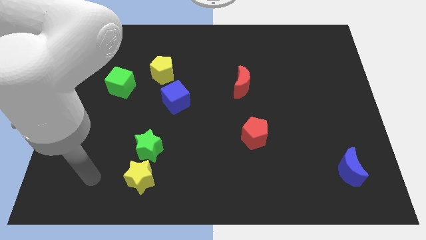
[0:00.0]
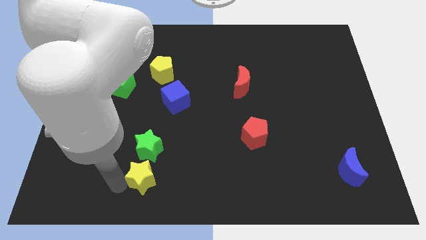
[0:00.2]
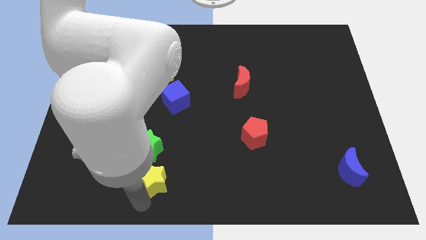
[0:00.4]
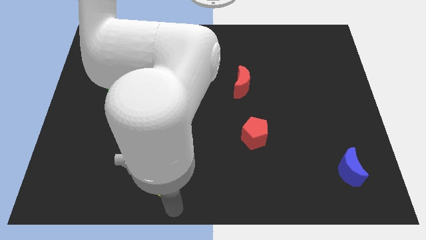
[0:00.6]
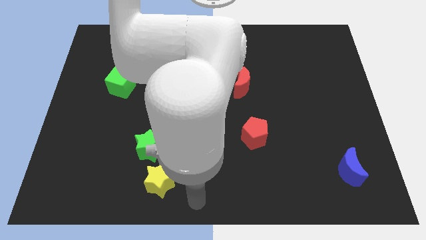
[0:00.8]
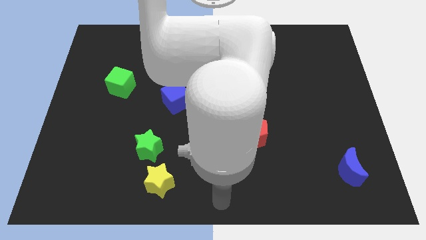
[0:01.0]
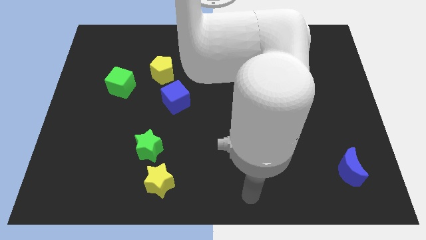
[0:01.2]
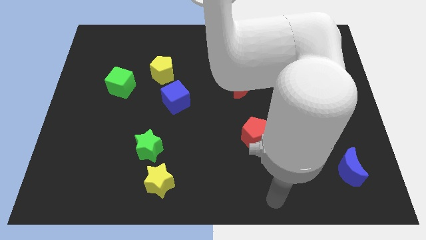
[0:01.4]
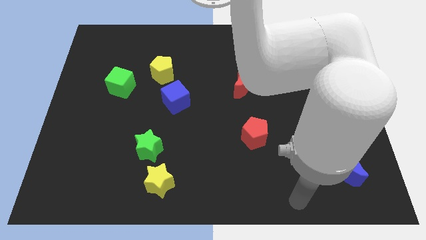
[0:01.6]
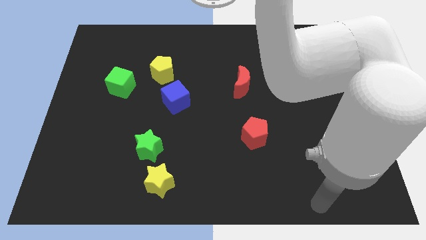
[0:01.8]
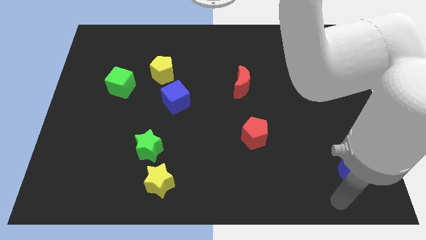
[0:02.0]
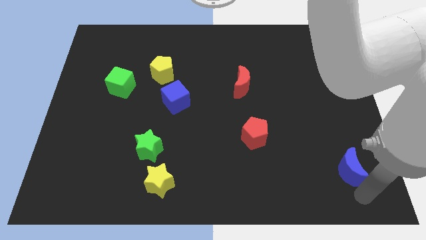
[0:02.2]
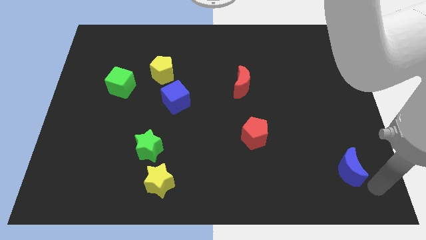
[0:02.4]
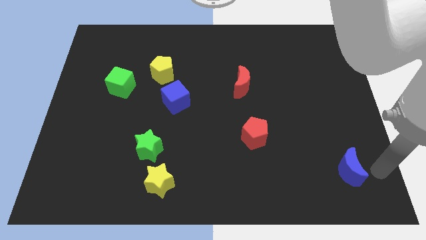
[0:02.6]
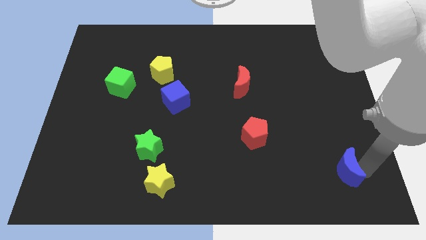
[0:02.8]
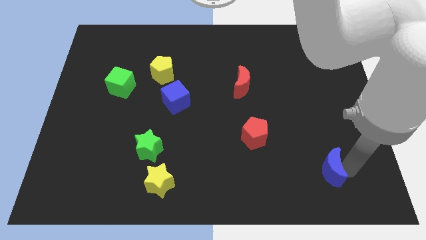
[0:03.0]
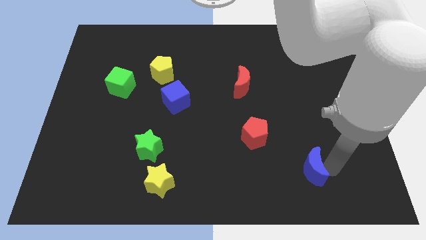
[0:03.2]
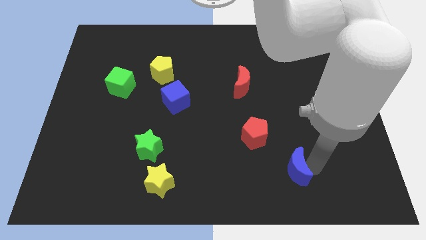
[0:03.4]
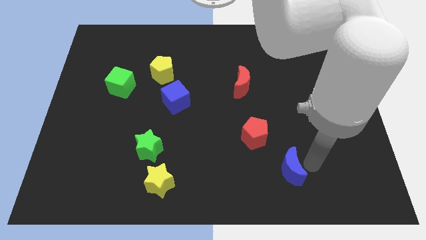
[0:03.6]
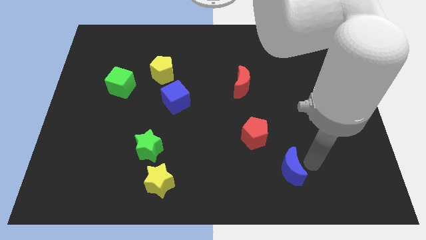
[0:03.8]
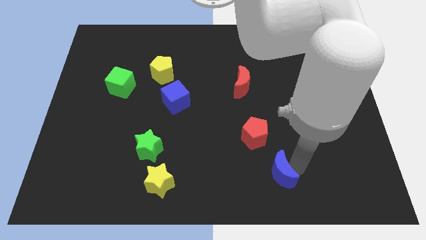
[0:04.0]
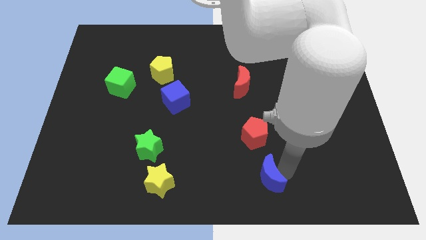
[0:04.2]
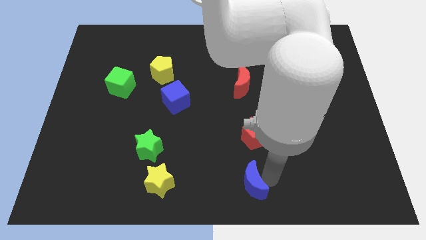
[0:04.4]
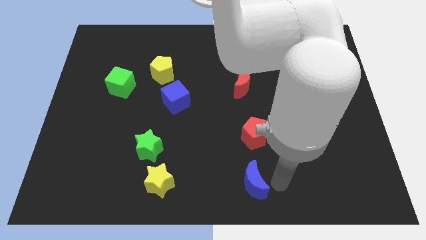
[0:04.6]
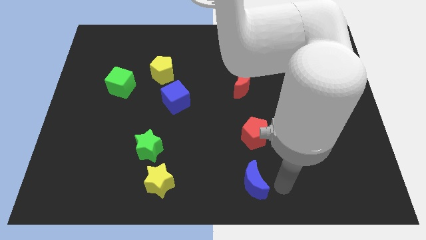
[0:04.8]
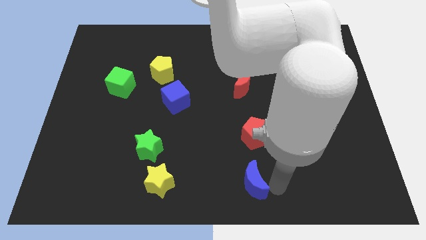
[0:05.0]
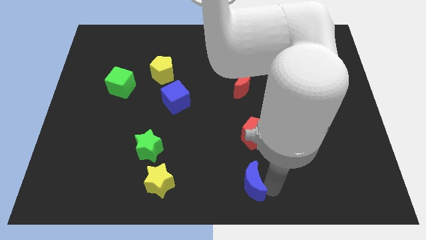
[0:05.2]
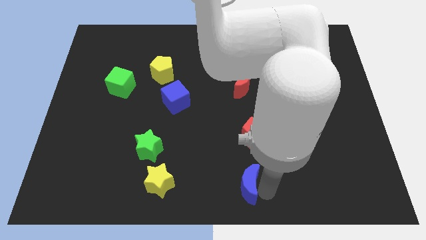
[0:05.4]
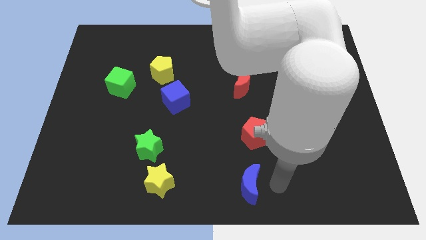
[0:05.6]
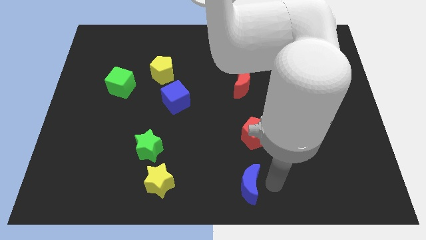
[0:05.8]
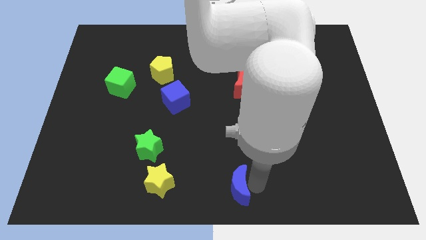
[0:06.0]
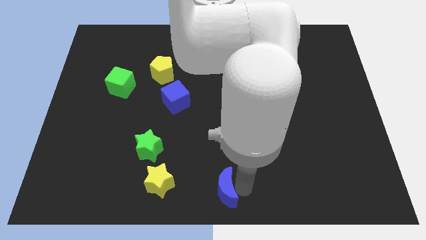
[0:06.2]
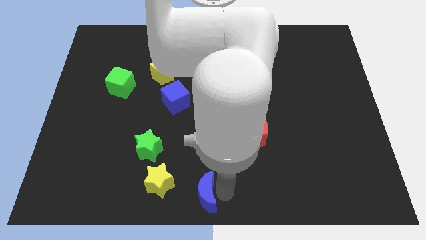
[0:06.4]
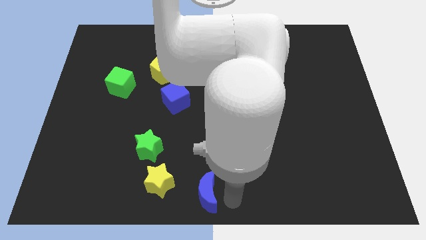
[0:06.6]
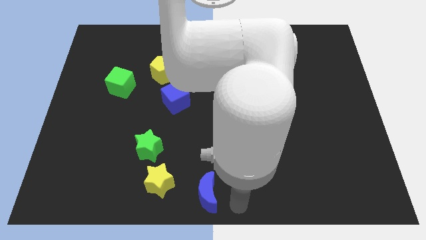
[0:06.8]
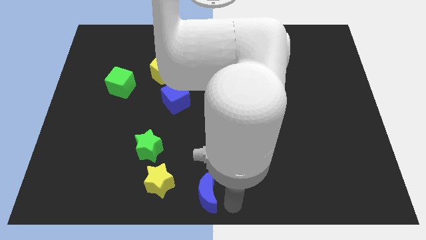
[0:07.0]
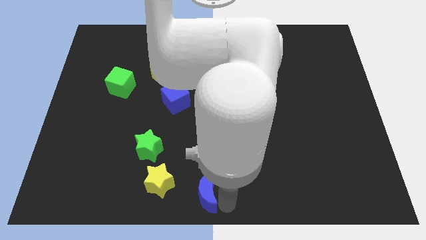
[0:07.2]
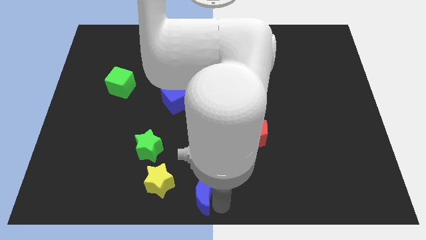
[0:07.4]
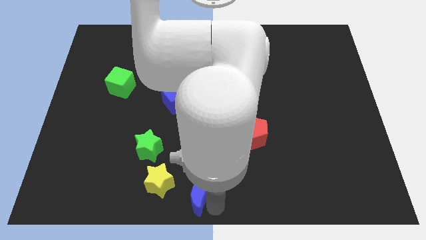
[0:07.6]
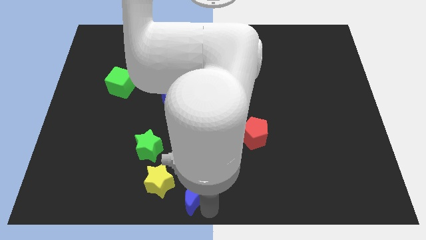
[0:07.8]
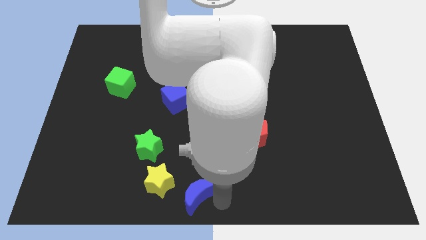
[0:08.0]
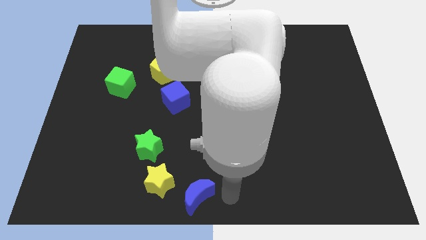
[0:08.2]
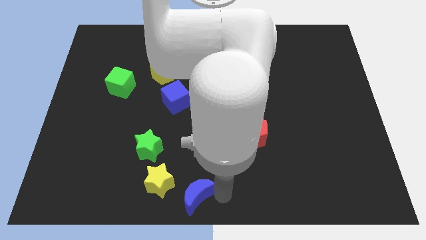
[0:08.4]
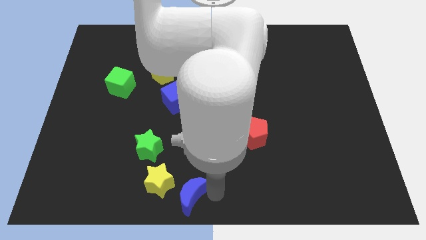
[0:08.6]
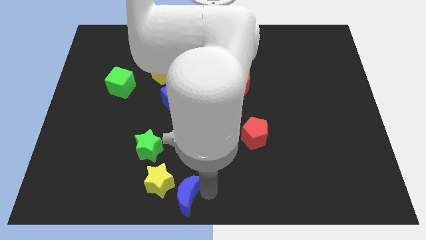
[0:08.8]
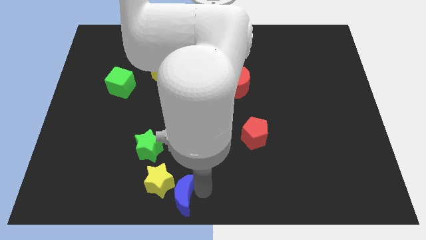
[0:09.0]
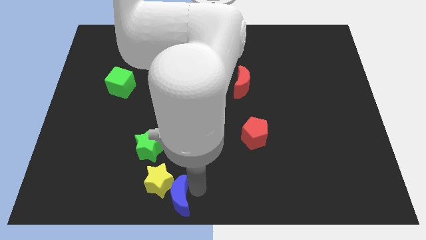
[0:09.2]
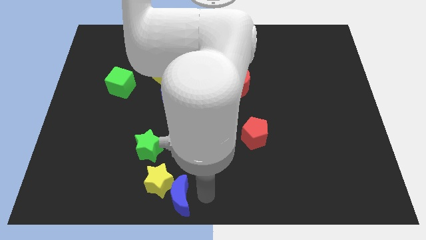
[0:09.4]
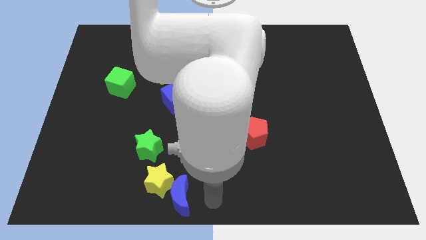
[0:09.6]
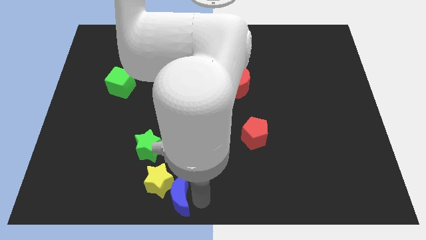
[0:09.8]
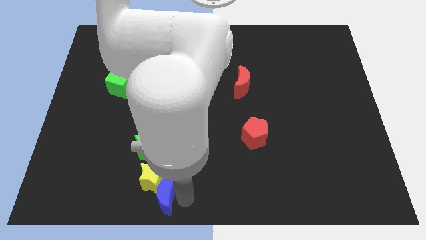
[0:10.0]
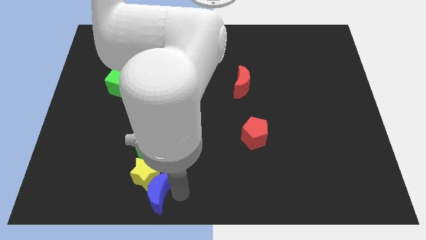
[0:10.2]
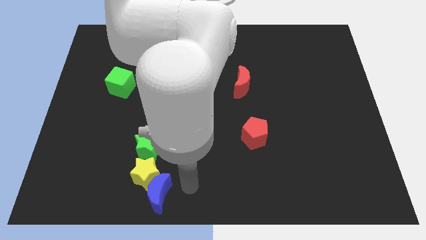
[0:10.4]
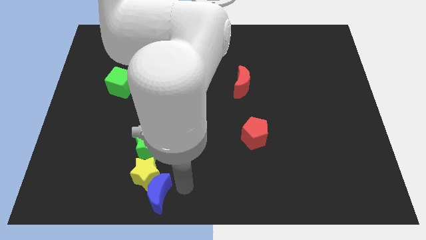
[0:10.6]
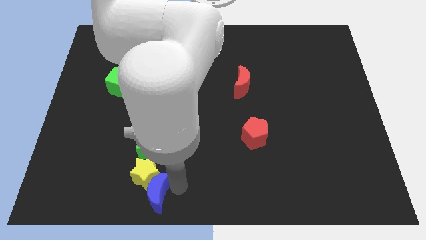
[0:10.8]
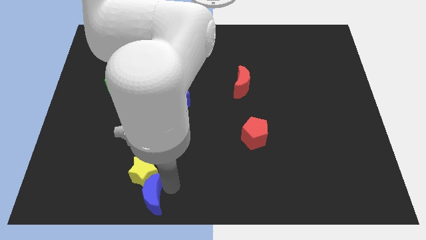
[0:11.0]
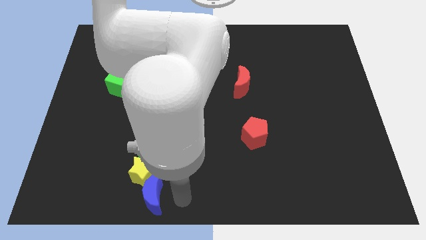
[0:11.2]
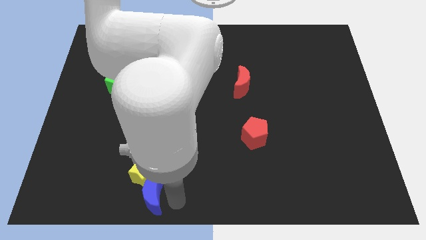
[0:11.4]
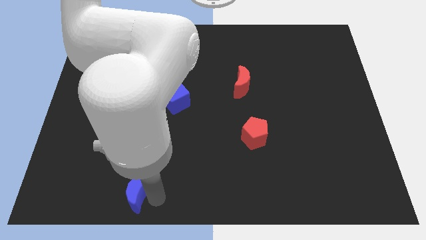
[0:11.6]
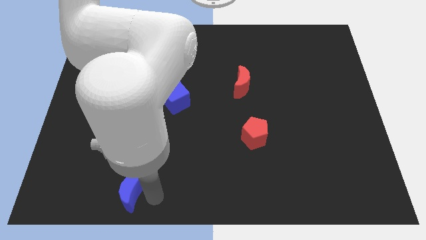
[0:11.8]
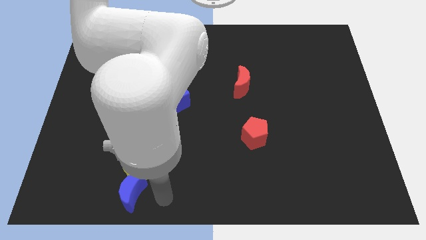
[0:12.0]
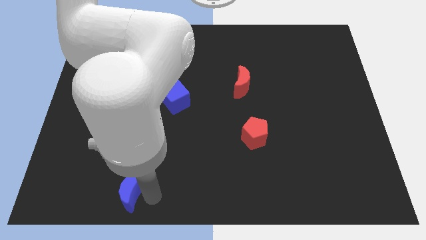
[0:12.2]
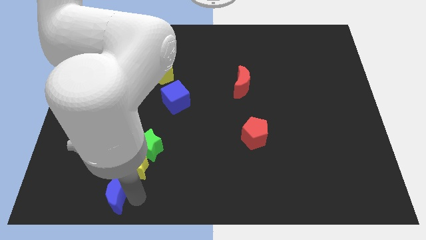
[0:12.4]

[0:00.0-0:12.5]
put the blue moon to the bottom left of the green star

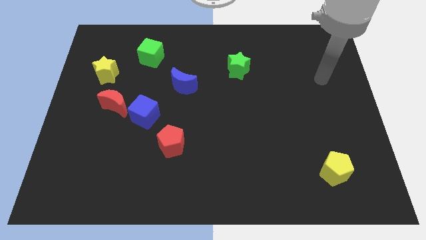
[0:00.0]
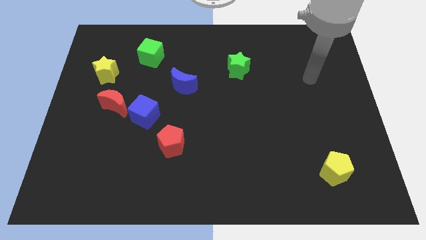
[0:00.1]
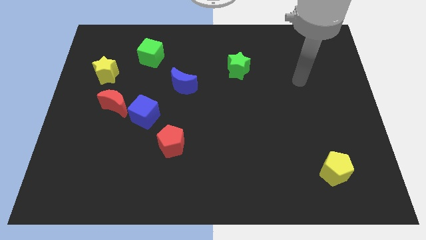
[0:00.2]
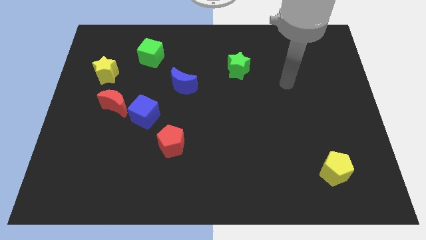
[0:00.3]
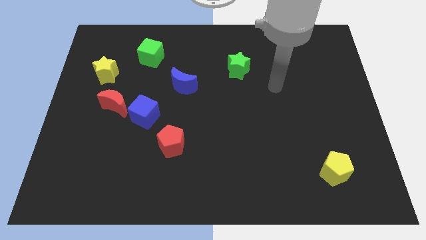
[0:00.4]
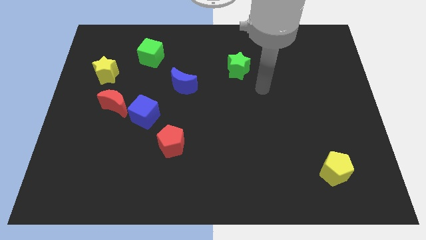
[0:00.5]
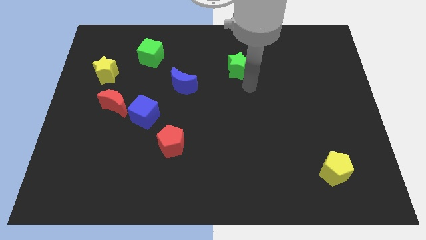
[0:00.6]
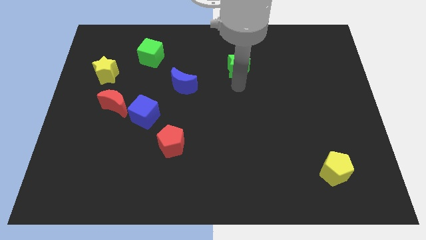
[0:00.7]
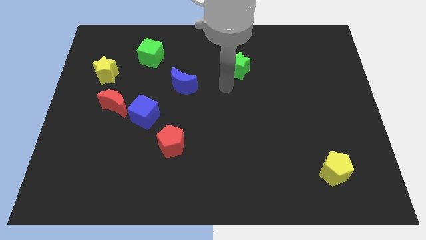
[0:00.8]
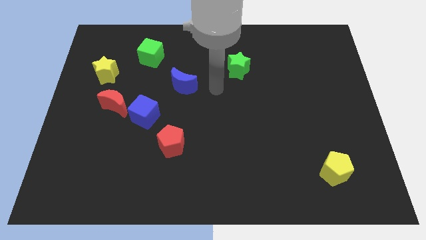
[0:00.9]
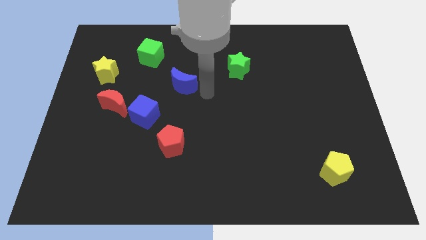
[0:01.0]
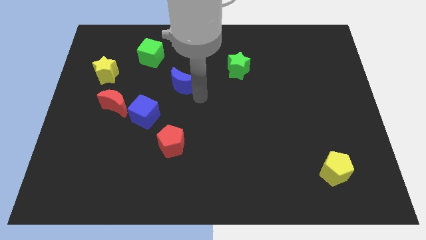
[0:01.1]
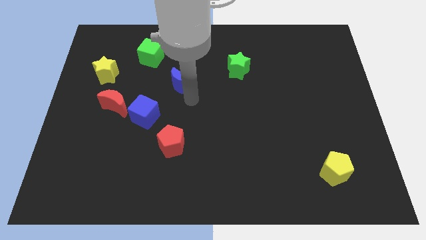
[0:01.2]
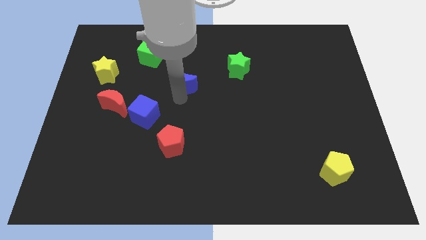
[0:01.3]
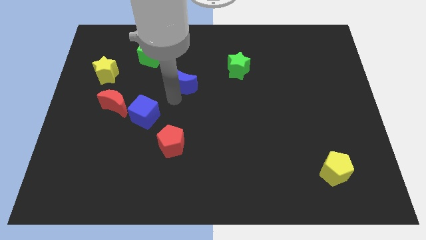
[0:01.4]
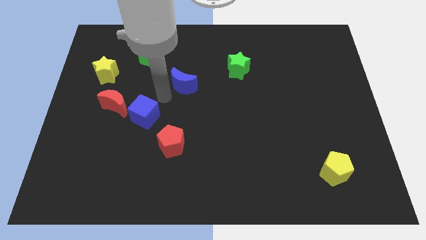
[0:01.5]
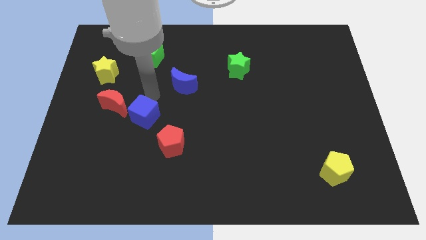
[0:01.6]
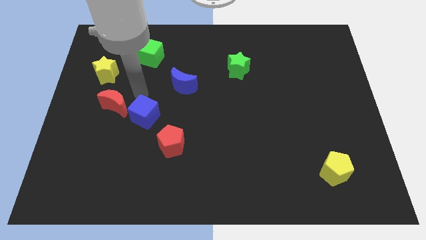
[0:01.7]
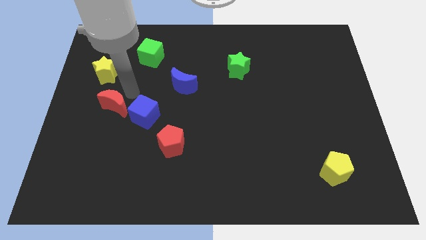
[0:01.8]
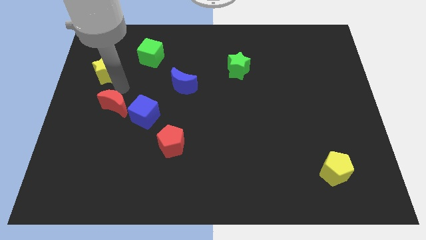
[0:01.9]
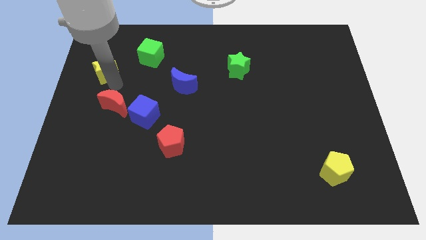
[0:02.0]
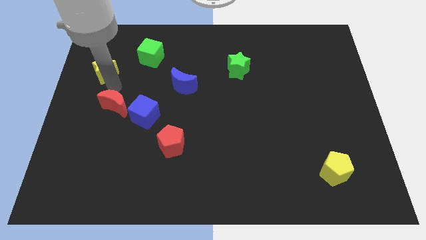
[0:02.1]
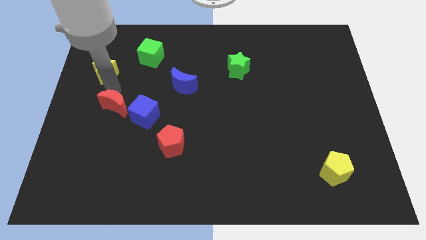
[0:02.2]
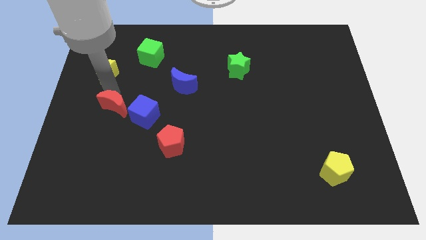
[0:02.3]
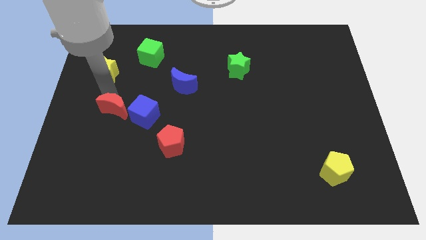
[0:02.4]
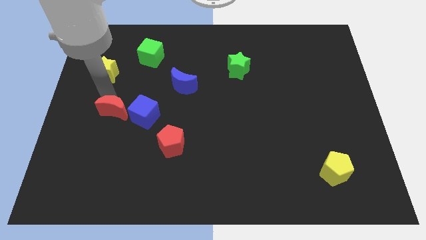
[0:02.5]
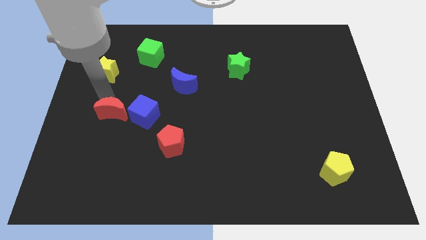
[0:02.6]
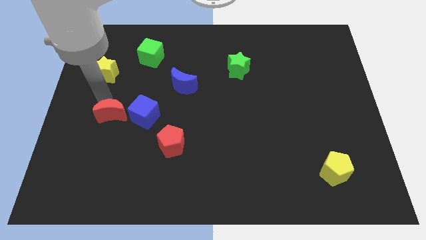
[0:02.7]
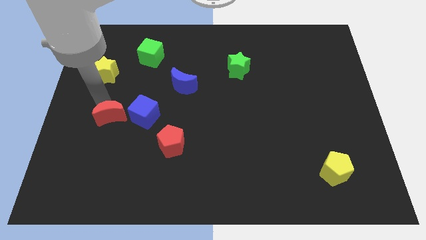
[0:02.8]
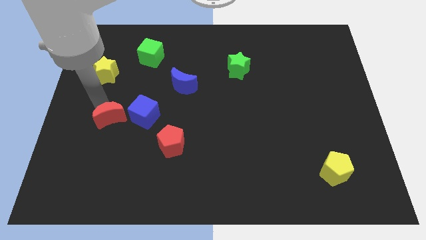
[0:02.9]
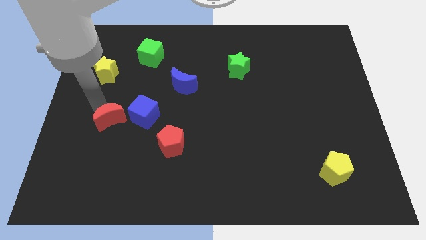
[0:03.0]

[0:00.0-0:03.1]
slide the red moon to the bottom left of the blue cube
